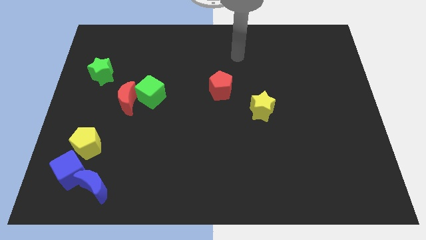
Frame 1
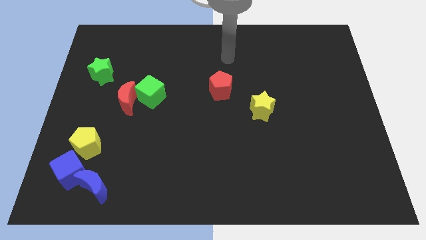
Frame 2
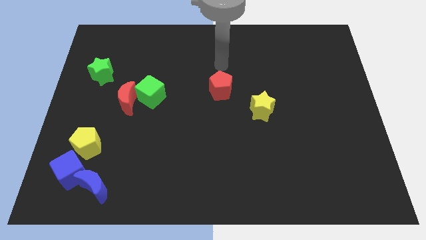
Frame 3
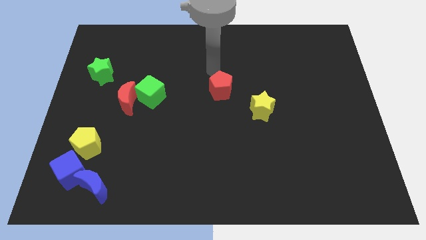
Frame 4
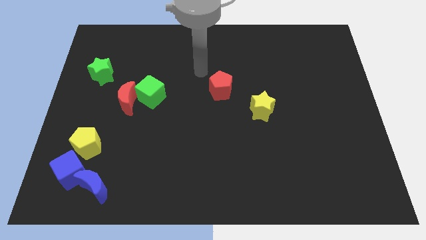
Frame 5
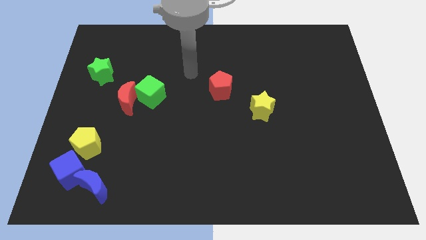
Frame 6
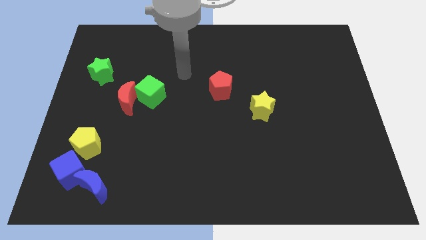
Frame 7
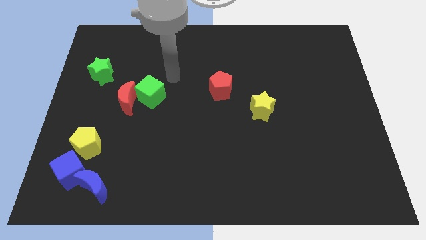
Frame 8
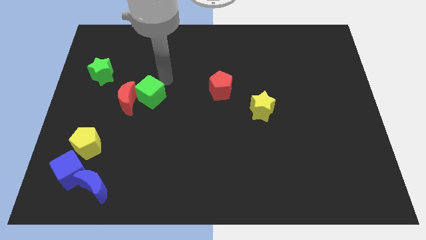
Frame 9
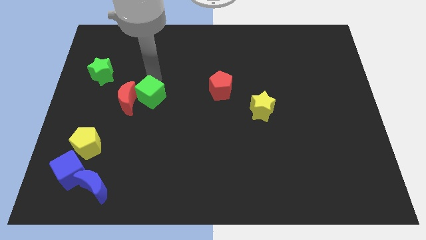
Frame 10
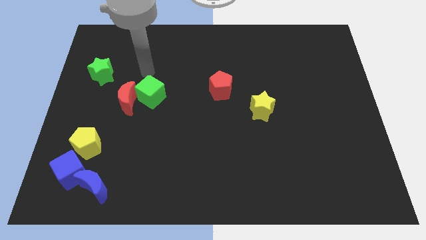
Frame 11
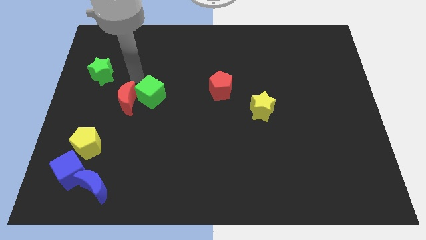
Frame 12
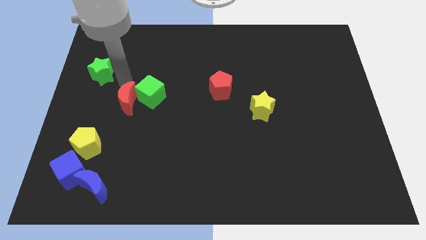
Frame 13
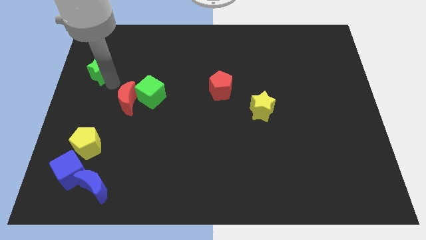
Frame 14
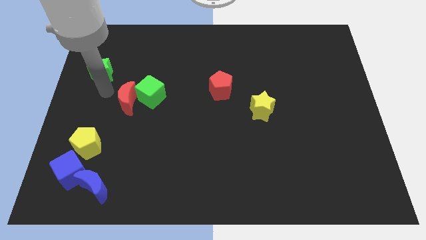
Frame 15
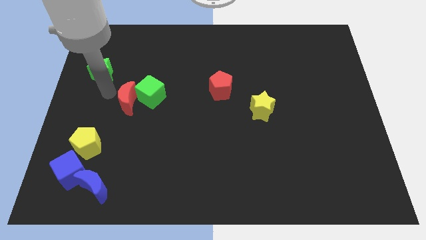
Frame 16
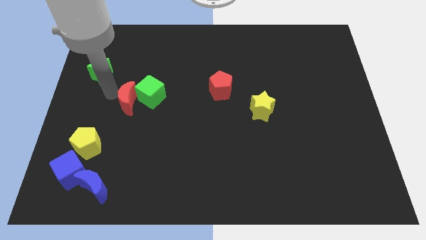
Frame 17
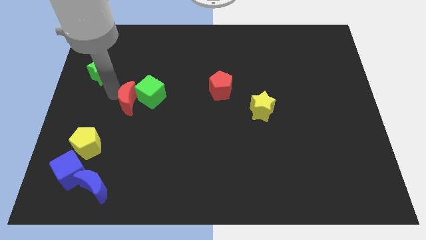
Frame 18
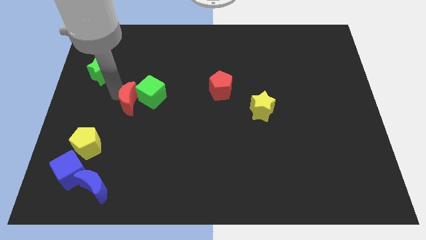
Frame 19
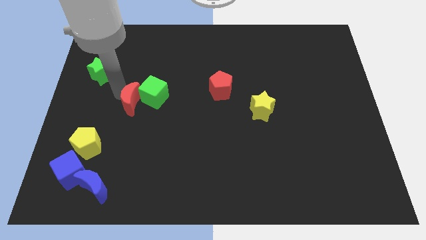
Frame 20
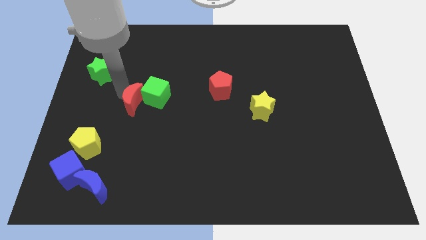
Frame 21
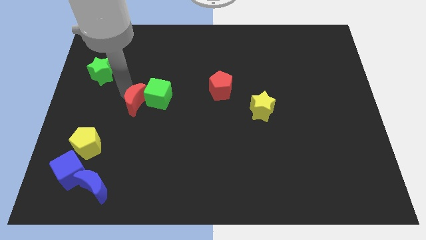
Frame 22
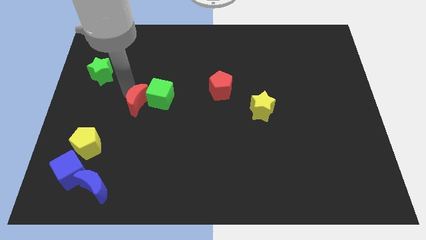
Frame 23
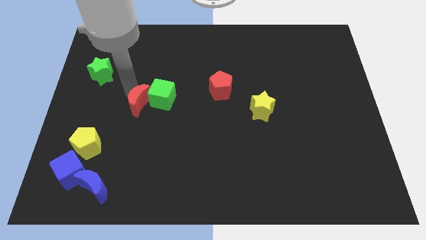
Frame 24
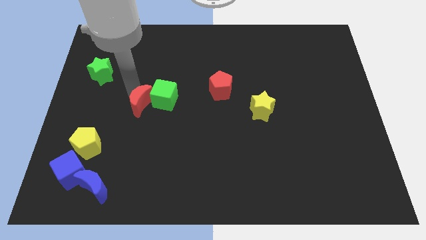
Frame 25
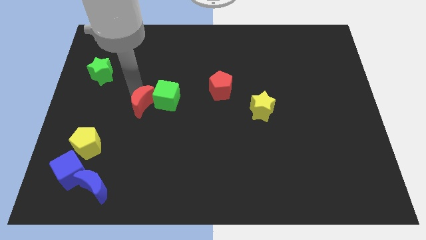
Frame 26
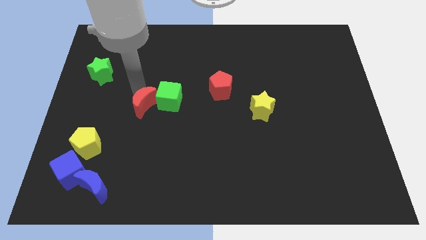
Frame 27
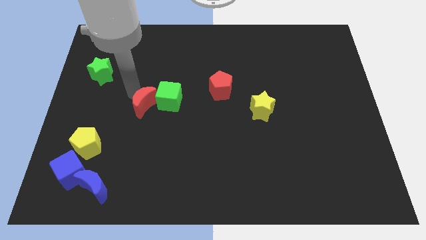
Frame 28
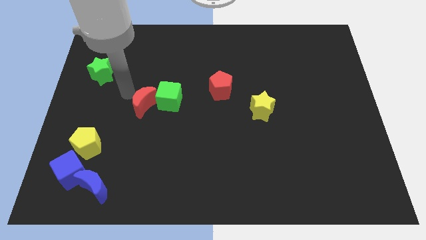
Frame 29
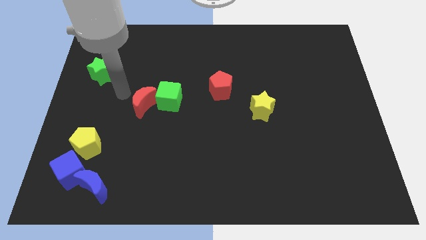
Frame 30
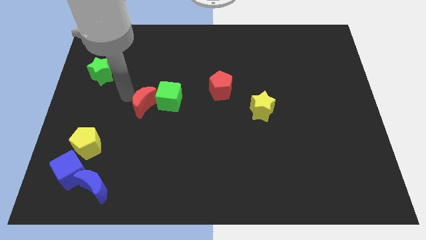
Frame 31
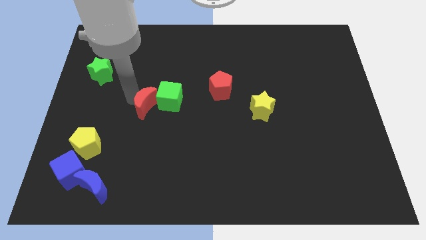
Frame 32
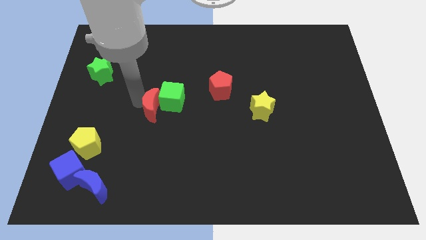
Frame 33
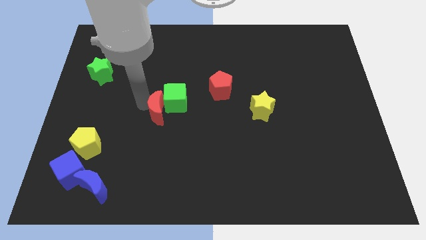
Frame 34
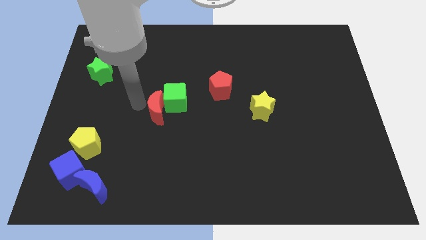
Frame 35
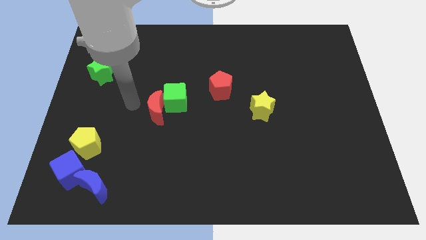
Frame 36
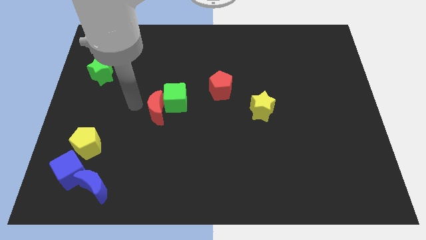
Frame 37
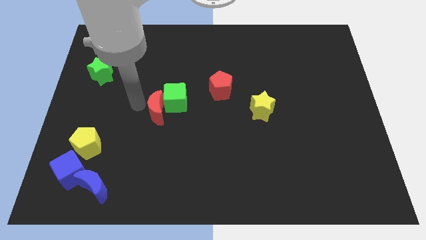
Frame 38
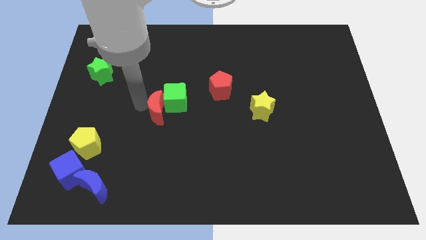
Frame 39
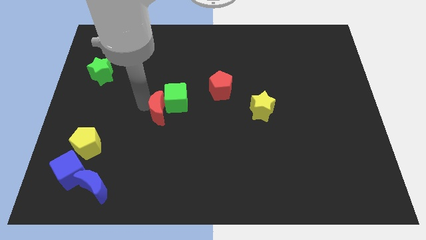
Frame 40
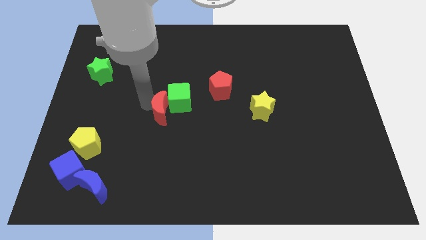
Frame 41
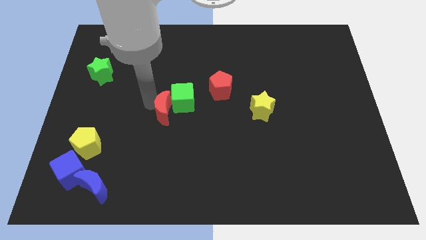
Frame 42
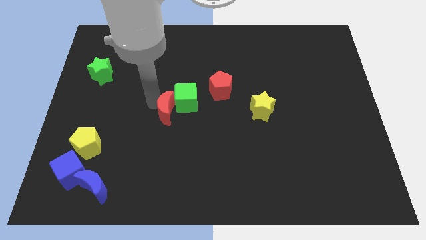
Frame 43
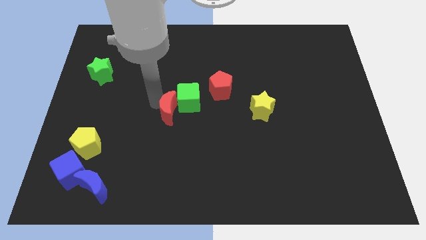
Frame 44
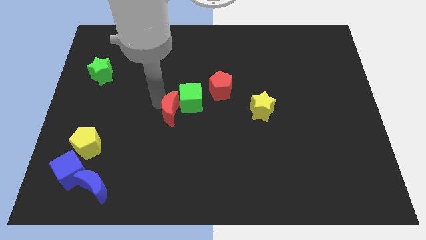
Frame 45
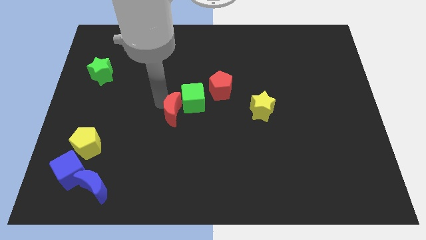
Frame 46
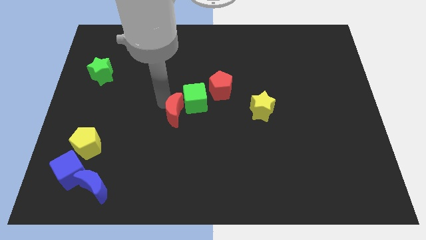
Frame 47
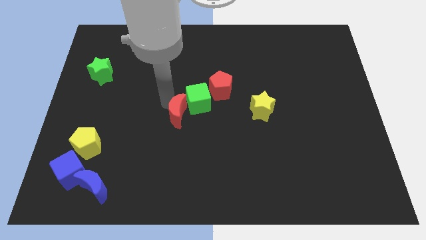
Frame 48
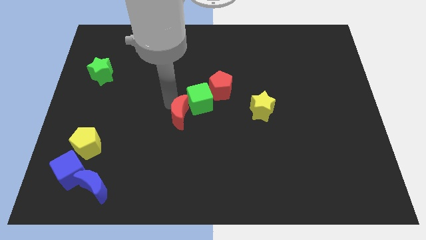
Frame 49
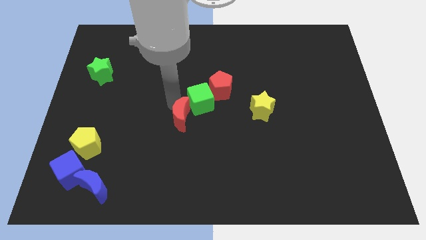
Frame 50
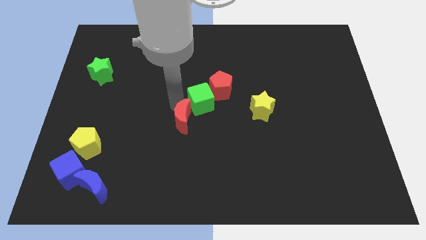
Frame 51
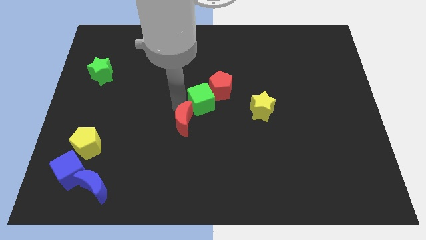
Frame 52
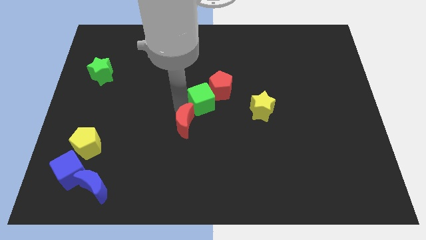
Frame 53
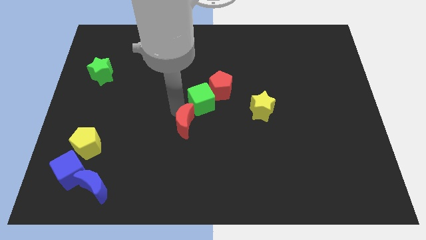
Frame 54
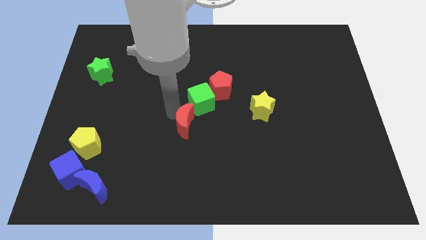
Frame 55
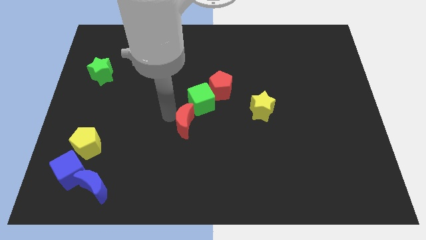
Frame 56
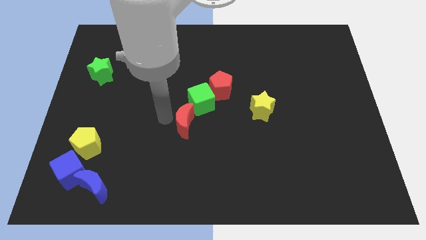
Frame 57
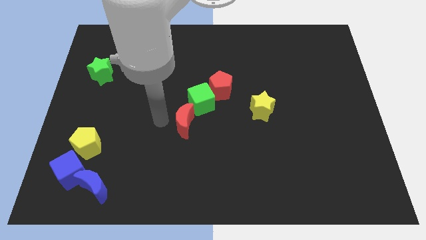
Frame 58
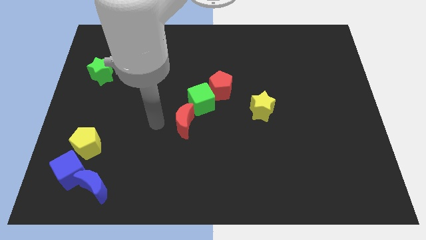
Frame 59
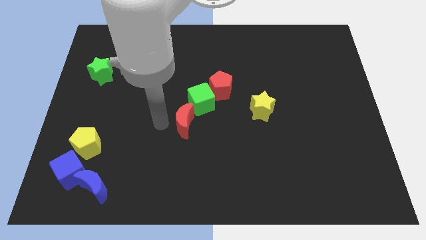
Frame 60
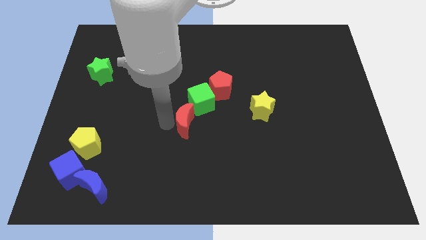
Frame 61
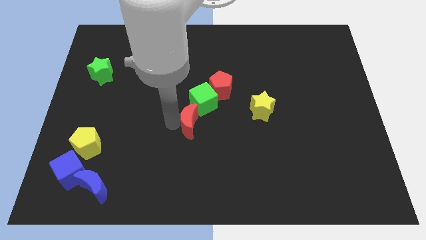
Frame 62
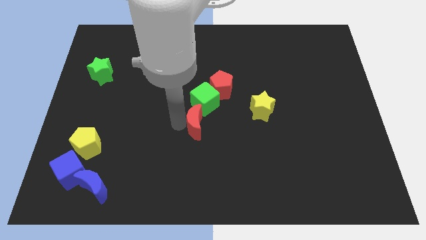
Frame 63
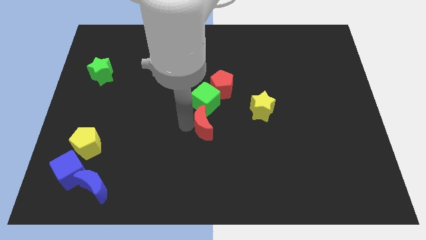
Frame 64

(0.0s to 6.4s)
push the red moon to the bottom of the red pentagon
